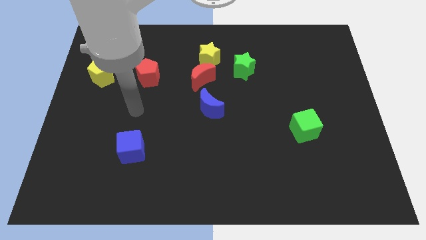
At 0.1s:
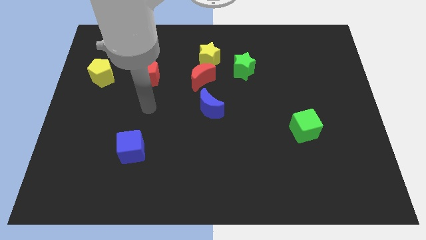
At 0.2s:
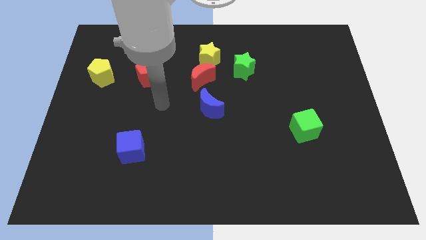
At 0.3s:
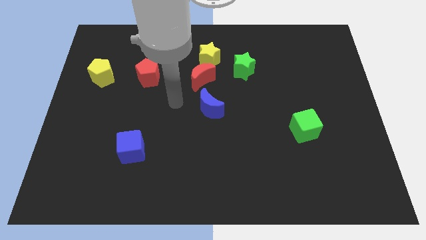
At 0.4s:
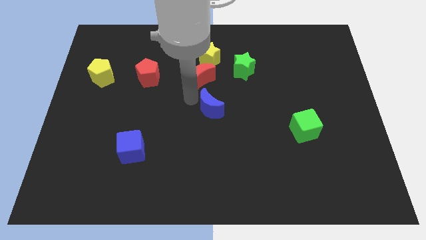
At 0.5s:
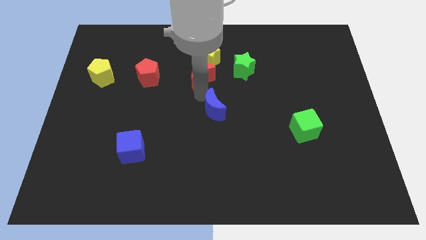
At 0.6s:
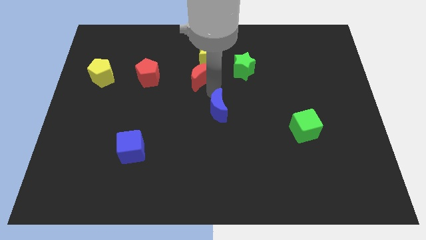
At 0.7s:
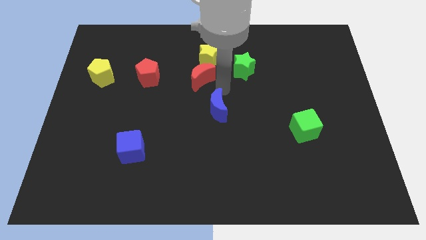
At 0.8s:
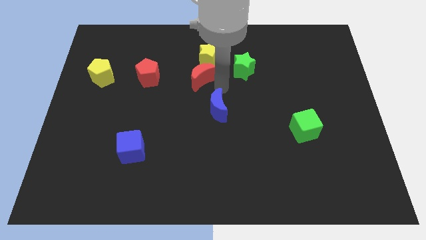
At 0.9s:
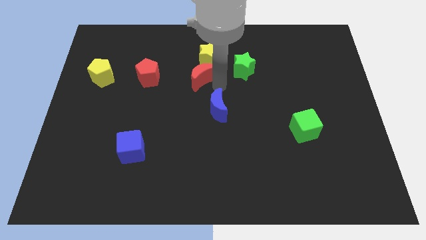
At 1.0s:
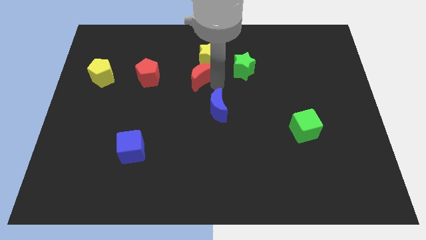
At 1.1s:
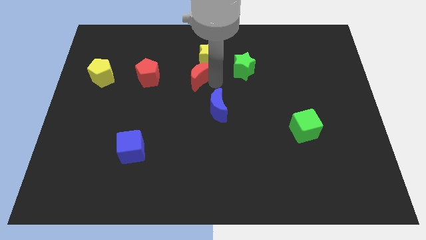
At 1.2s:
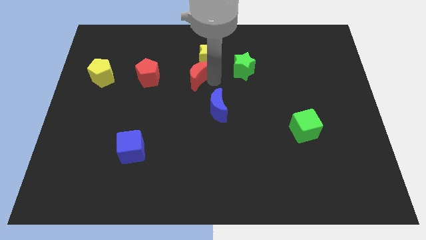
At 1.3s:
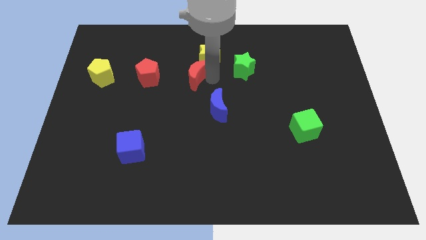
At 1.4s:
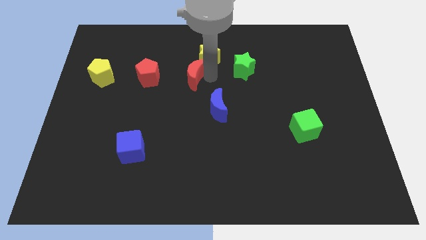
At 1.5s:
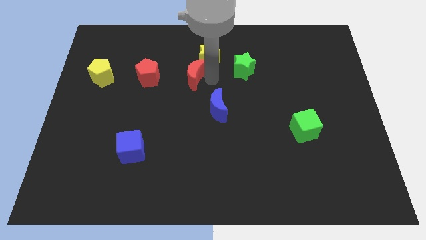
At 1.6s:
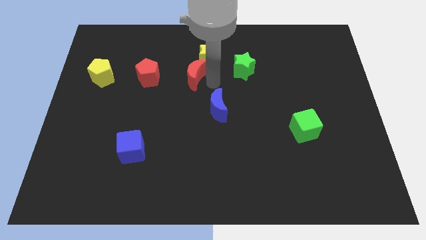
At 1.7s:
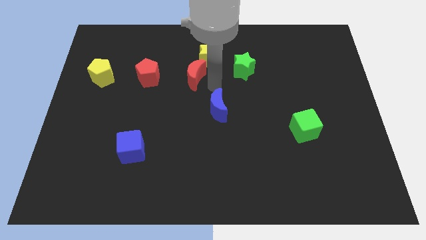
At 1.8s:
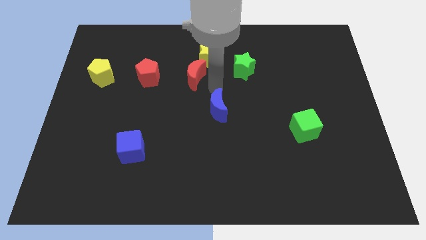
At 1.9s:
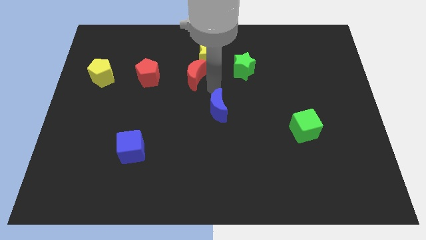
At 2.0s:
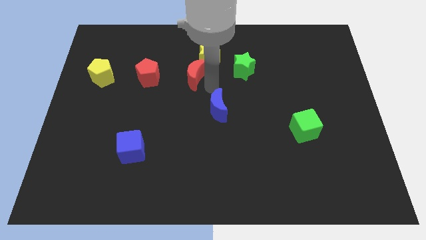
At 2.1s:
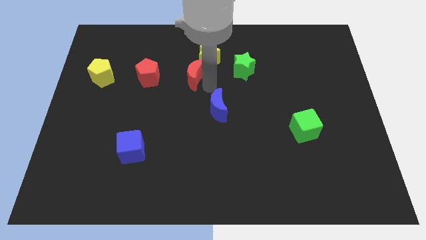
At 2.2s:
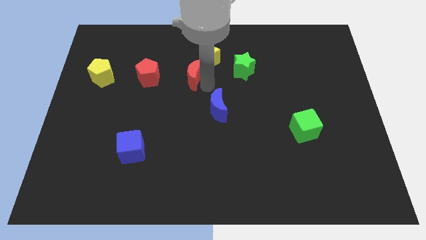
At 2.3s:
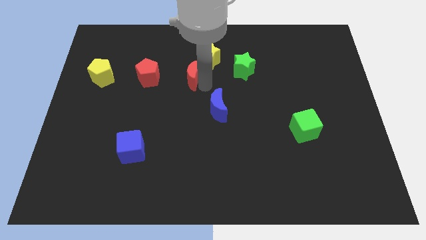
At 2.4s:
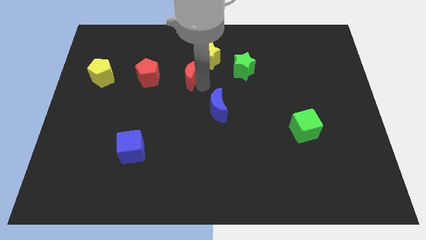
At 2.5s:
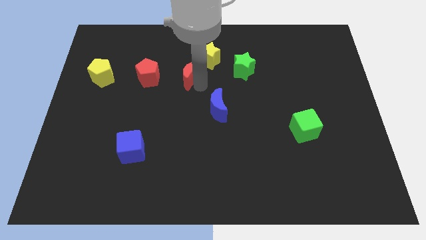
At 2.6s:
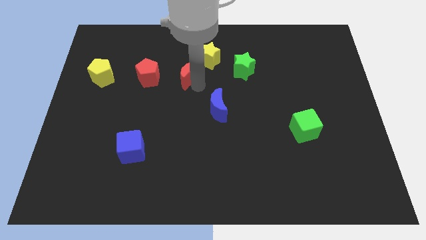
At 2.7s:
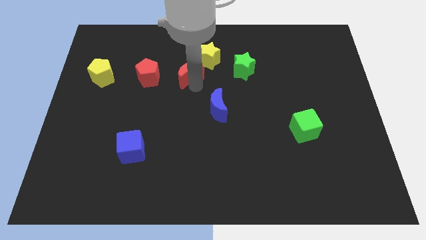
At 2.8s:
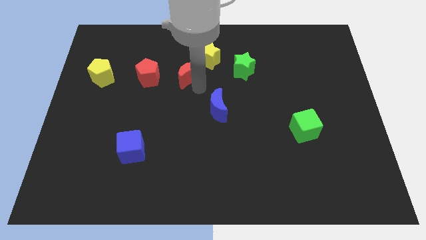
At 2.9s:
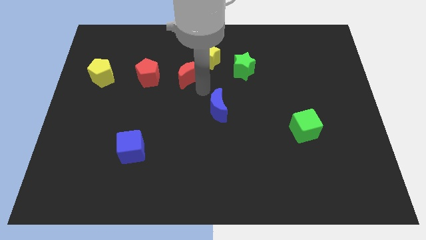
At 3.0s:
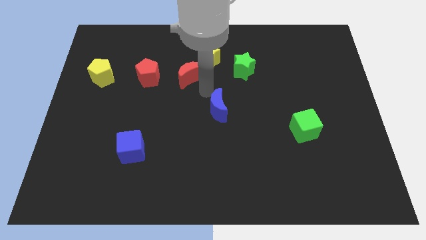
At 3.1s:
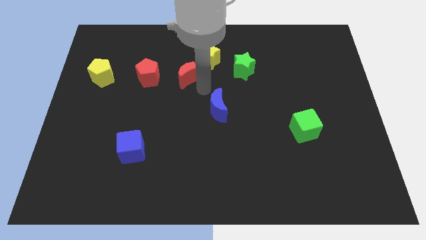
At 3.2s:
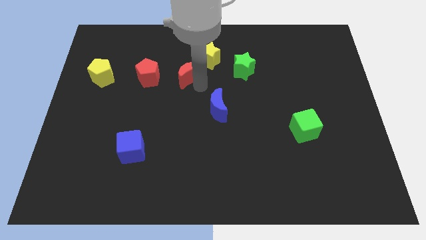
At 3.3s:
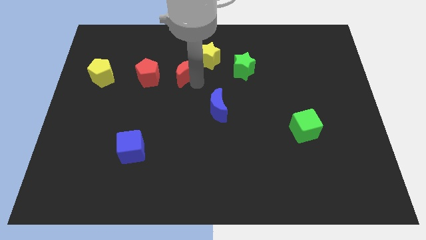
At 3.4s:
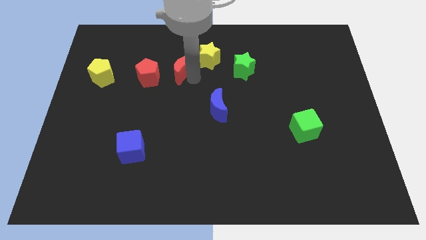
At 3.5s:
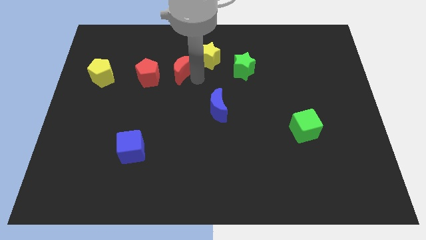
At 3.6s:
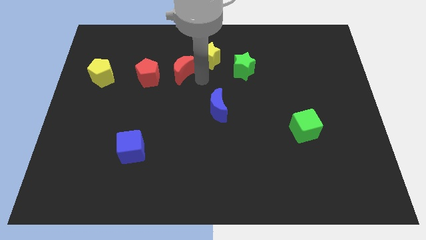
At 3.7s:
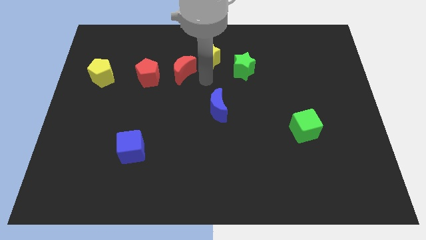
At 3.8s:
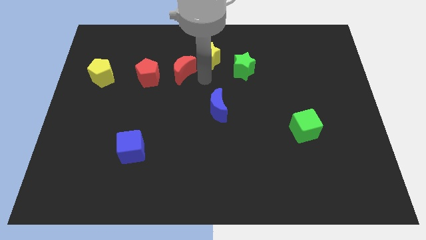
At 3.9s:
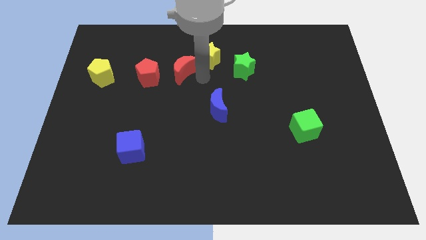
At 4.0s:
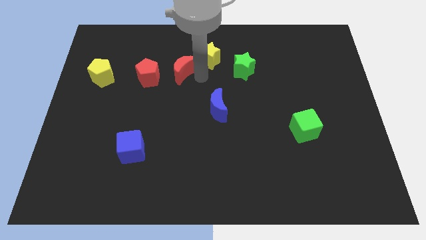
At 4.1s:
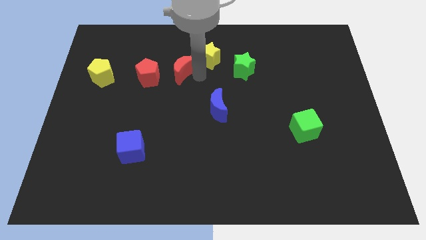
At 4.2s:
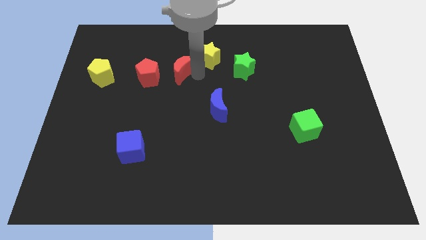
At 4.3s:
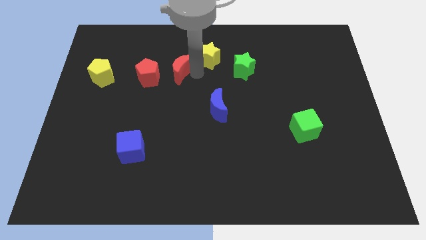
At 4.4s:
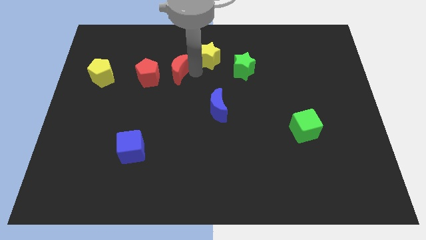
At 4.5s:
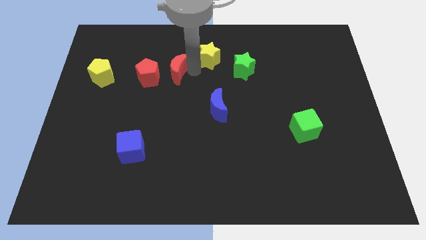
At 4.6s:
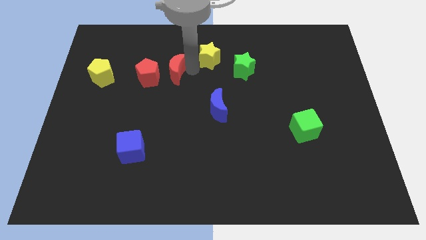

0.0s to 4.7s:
pull the red moon apart from the yellow star and blue moon

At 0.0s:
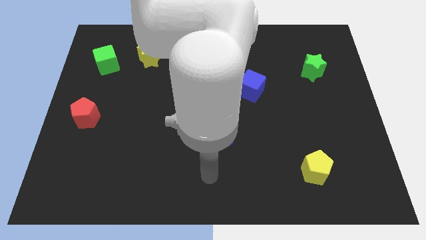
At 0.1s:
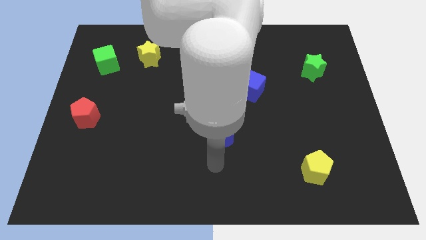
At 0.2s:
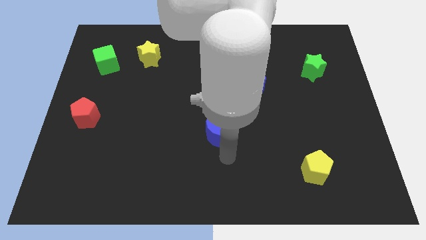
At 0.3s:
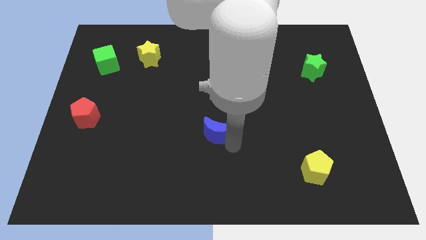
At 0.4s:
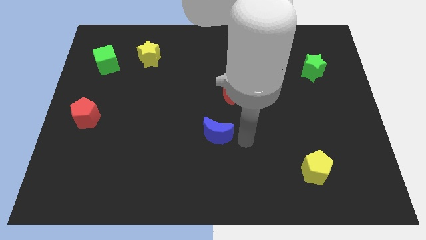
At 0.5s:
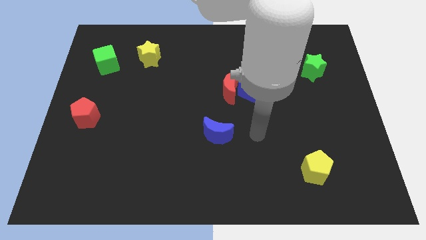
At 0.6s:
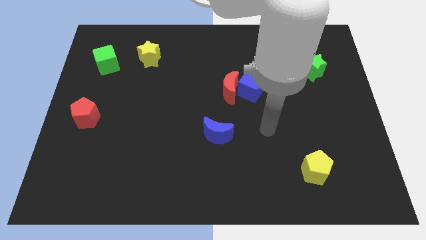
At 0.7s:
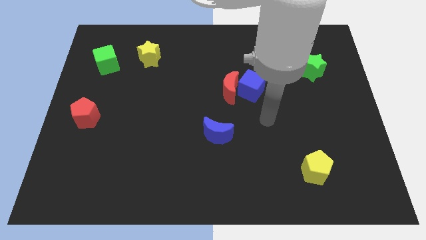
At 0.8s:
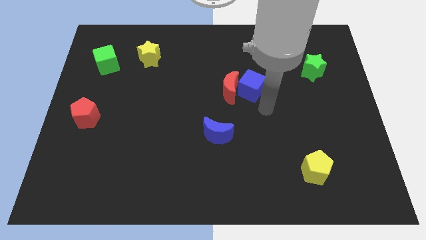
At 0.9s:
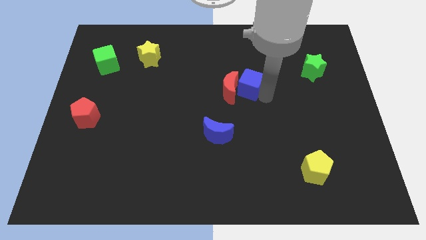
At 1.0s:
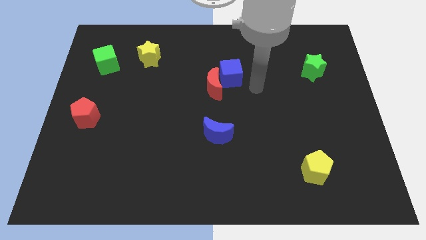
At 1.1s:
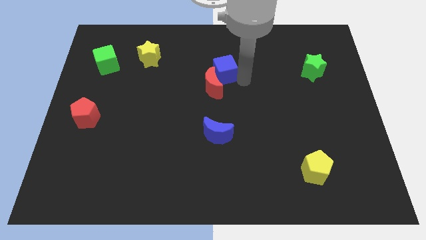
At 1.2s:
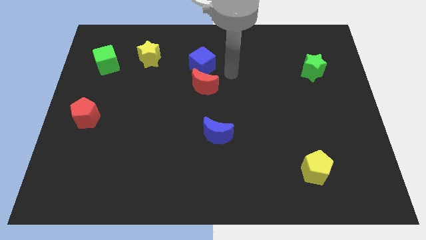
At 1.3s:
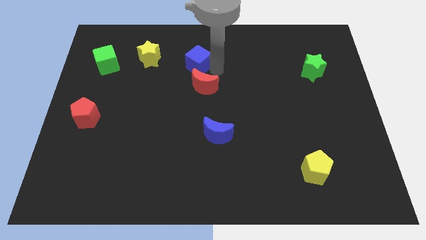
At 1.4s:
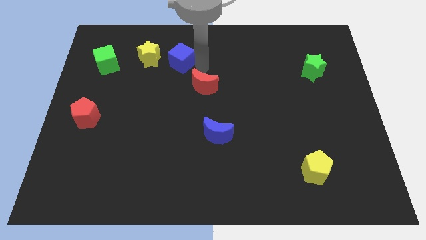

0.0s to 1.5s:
pull the red moon apart from the blue cube

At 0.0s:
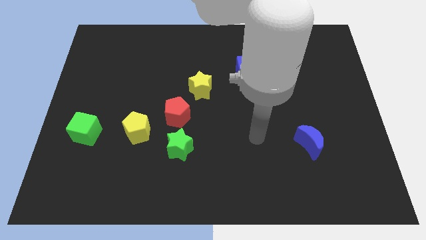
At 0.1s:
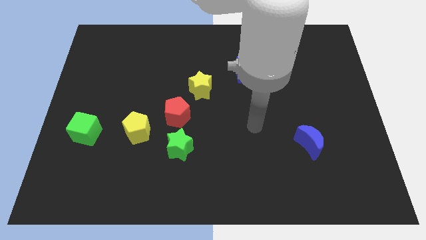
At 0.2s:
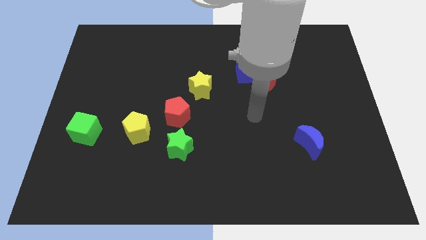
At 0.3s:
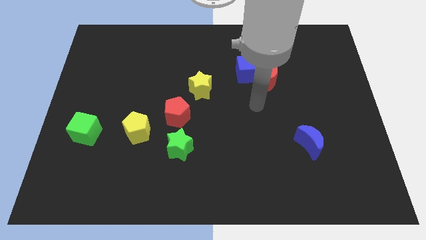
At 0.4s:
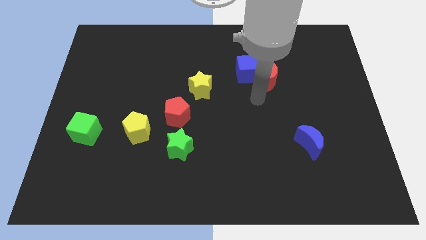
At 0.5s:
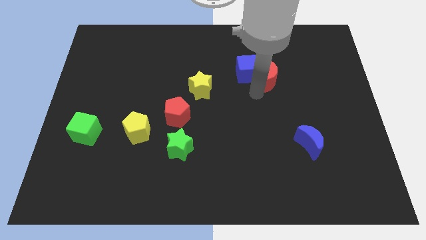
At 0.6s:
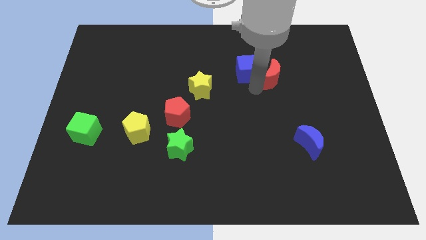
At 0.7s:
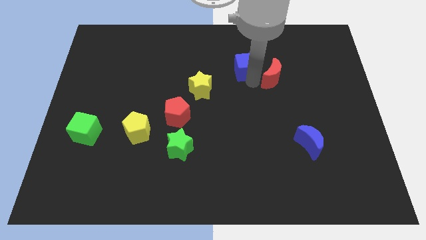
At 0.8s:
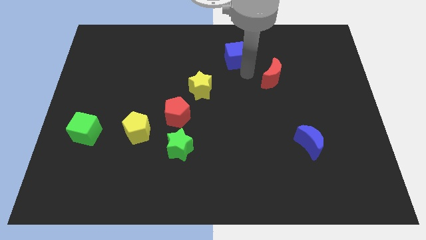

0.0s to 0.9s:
move the red moon away from the blue cube

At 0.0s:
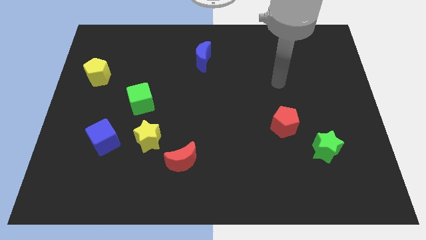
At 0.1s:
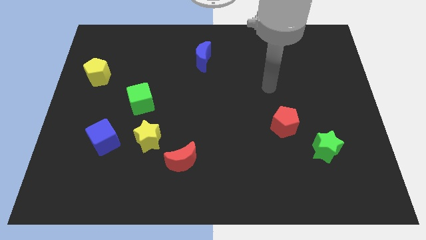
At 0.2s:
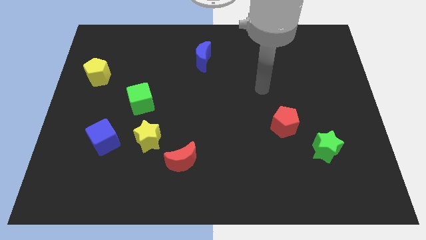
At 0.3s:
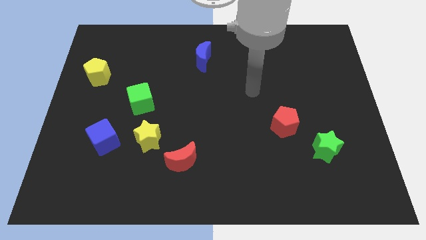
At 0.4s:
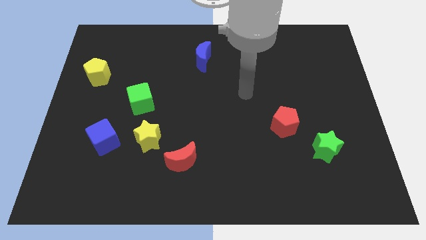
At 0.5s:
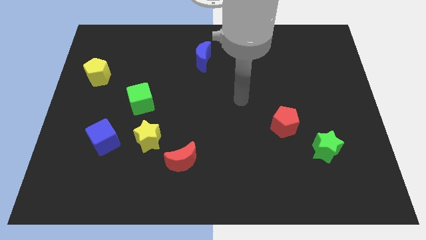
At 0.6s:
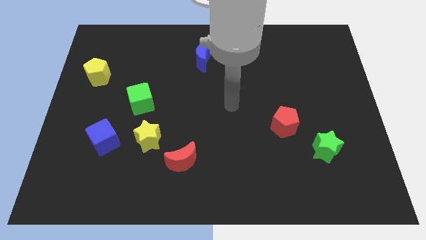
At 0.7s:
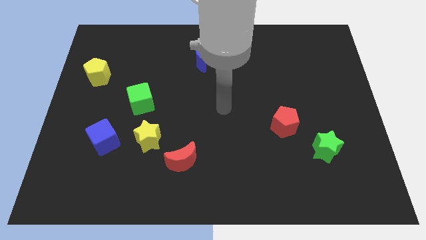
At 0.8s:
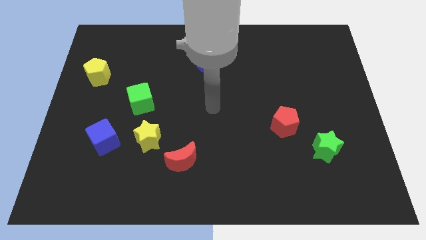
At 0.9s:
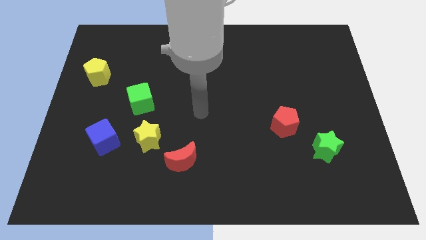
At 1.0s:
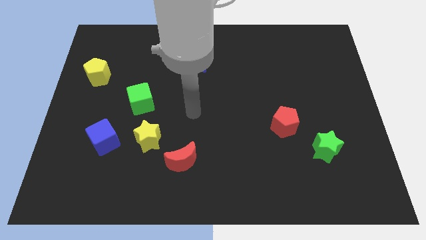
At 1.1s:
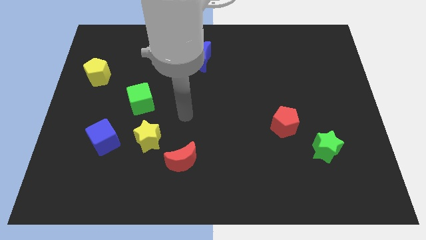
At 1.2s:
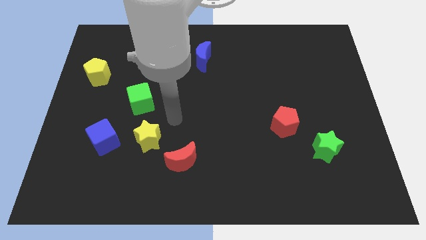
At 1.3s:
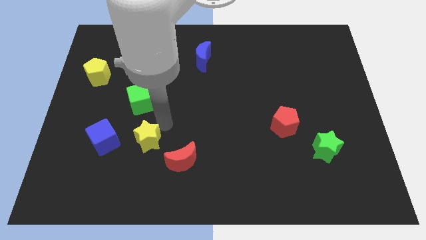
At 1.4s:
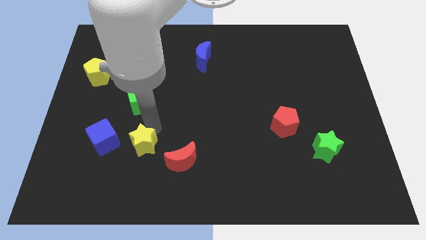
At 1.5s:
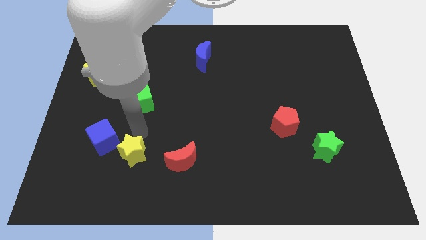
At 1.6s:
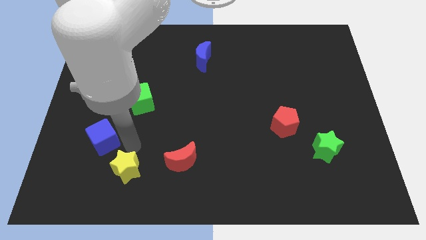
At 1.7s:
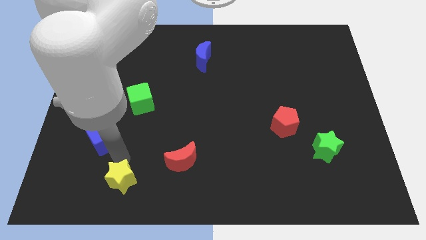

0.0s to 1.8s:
separate the blue cube from the yellow star

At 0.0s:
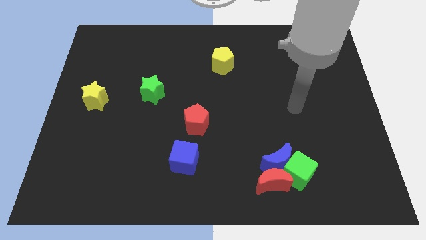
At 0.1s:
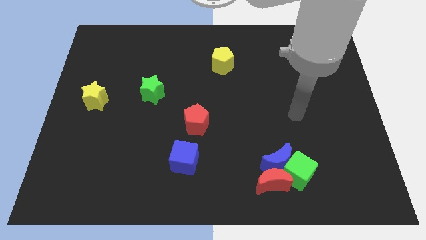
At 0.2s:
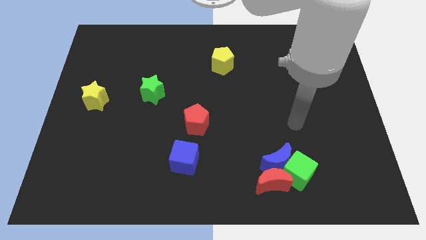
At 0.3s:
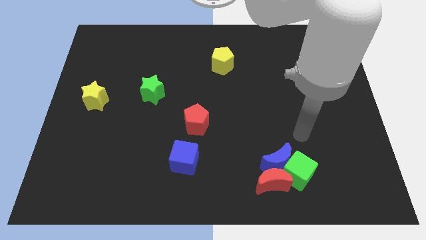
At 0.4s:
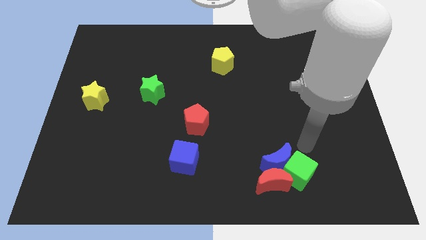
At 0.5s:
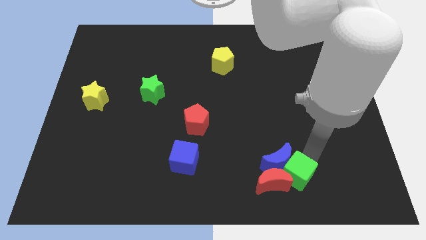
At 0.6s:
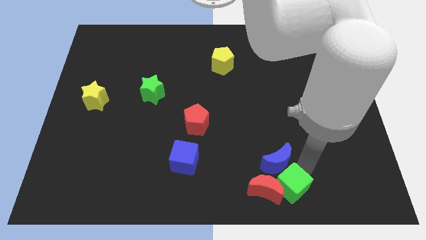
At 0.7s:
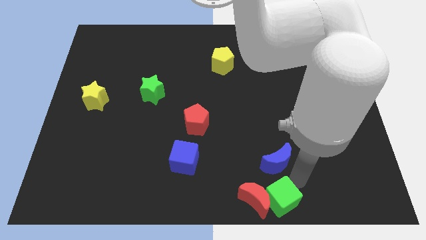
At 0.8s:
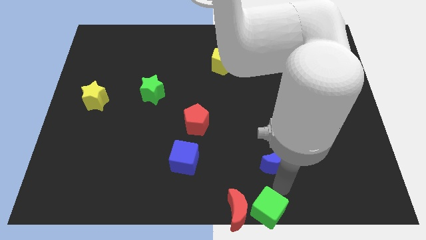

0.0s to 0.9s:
move the blue moon away from the green cube and red moon
